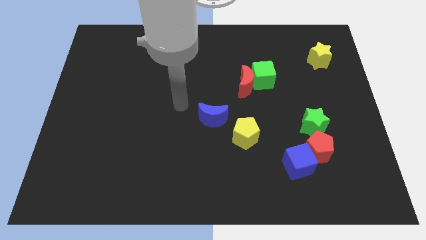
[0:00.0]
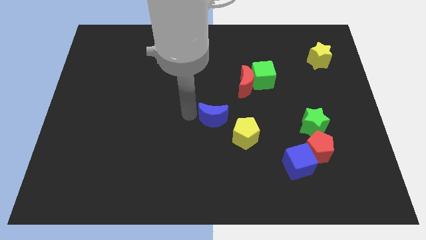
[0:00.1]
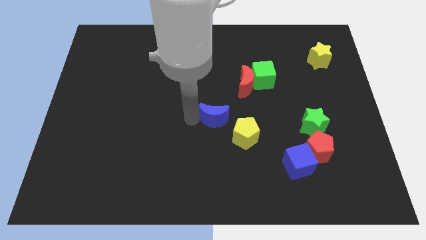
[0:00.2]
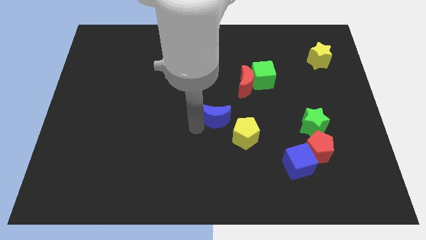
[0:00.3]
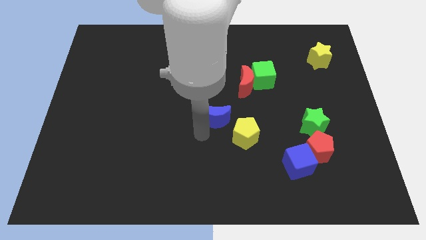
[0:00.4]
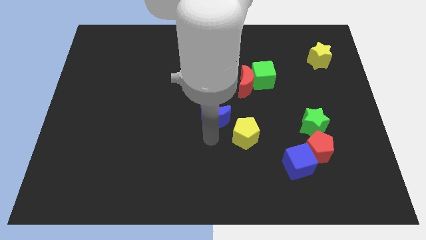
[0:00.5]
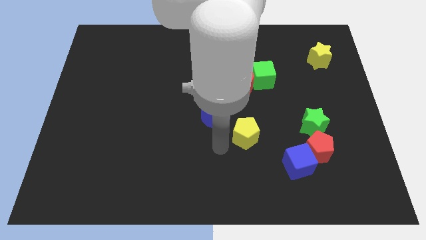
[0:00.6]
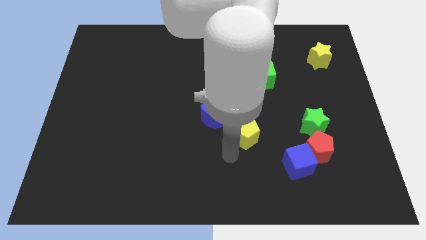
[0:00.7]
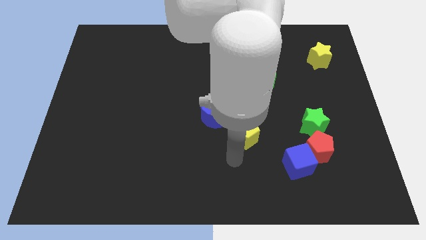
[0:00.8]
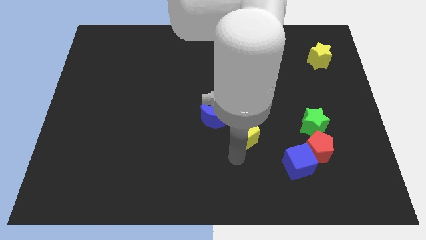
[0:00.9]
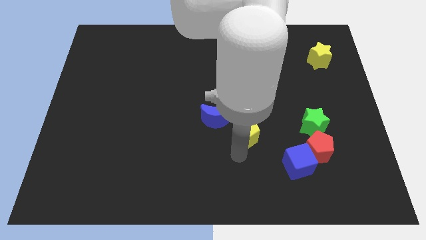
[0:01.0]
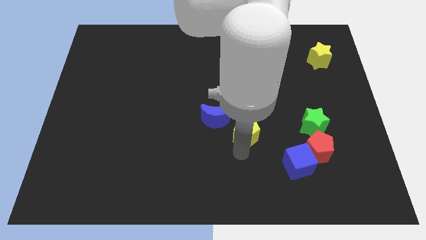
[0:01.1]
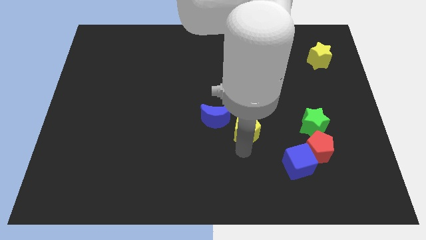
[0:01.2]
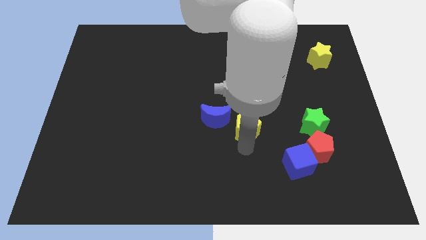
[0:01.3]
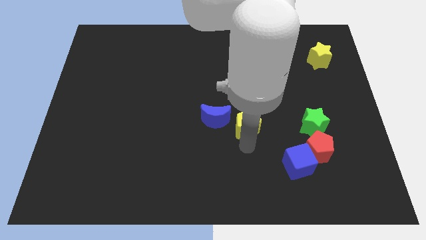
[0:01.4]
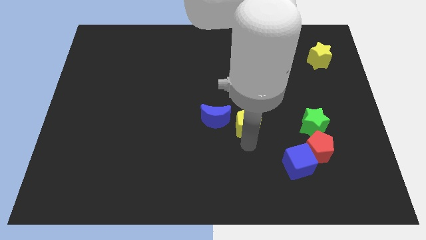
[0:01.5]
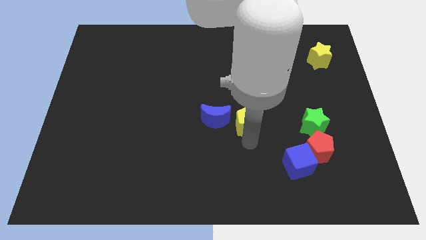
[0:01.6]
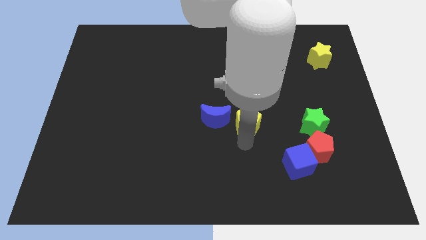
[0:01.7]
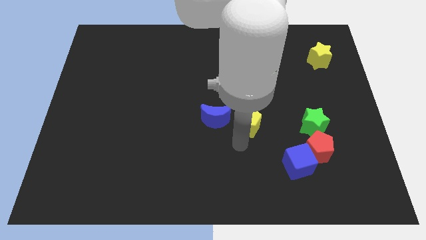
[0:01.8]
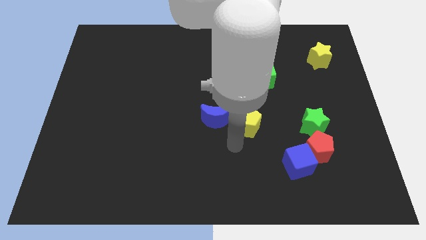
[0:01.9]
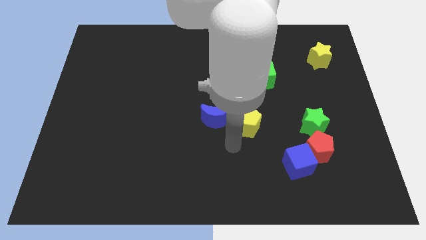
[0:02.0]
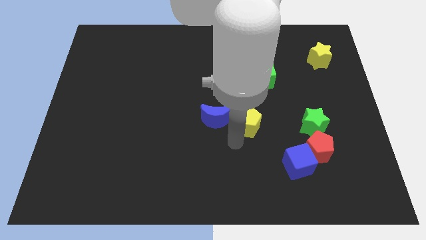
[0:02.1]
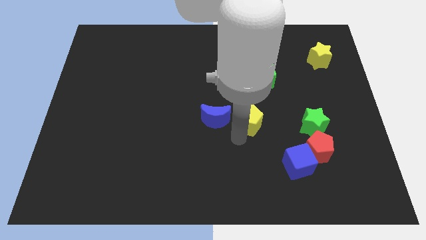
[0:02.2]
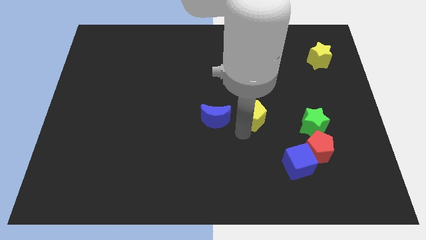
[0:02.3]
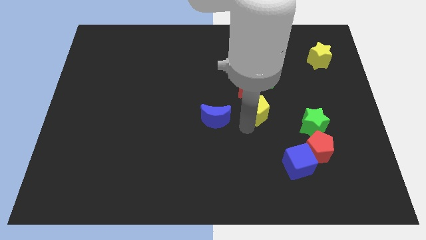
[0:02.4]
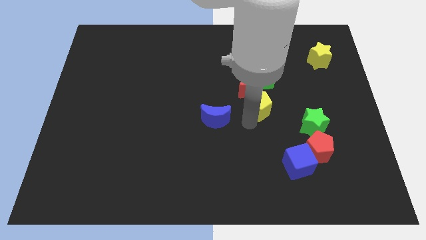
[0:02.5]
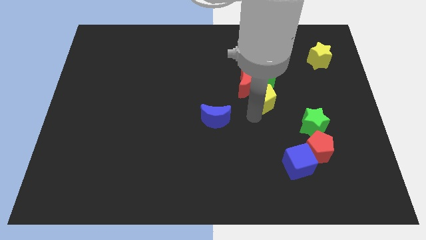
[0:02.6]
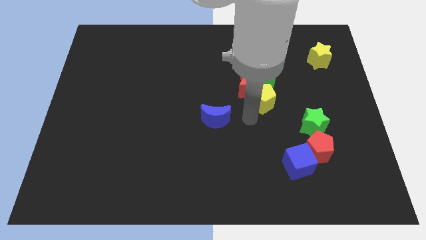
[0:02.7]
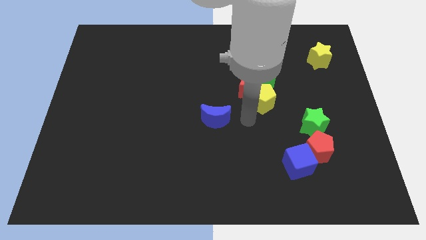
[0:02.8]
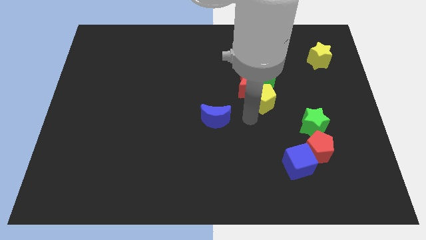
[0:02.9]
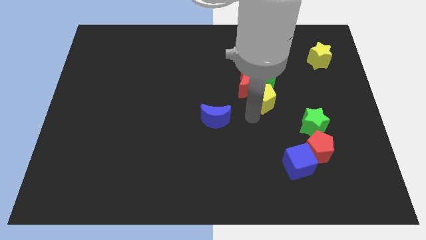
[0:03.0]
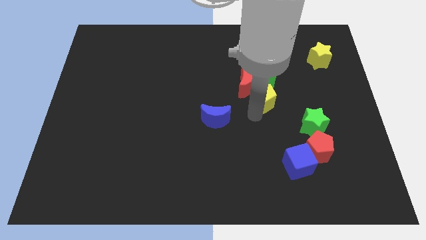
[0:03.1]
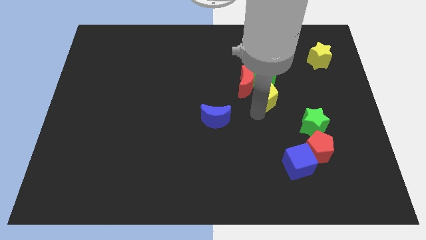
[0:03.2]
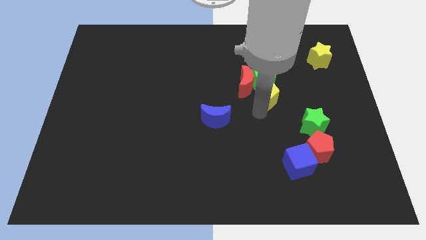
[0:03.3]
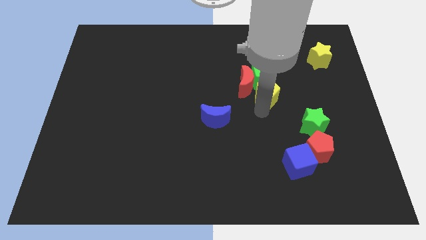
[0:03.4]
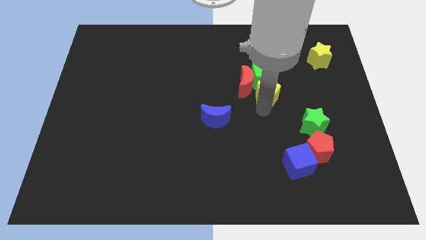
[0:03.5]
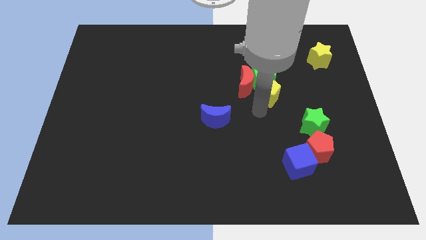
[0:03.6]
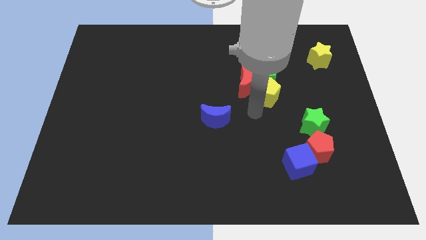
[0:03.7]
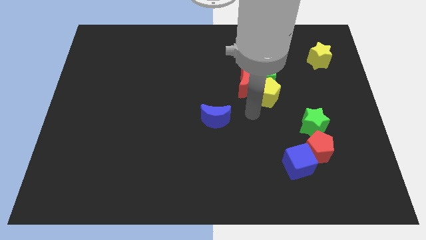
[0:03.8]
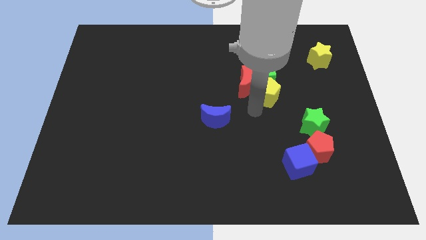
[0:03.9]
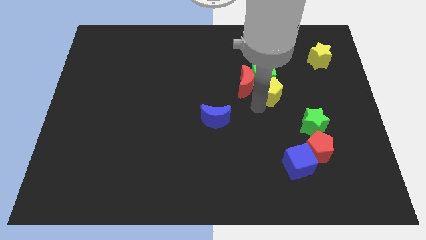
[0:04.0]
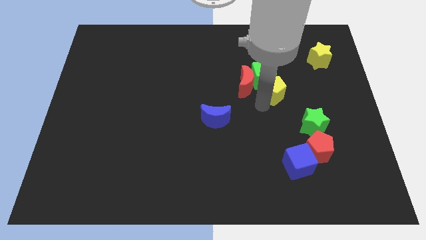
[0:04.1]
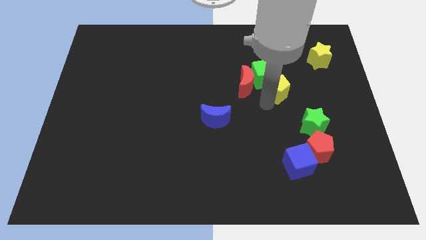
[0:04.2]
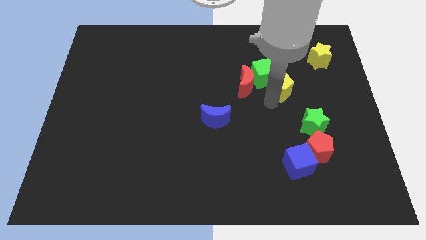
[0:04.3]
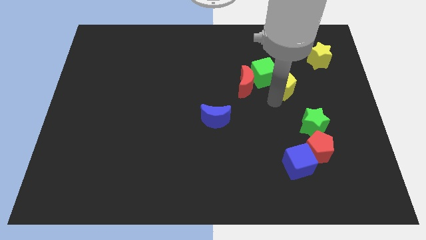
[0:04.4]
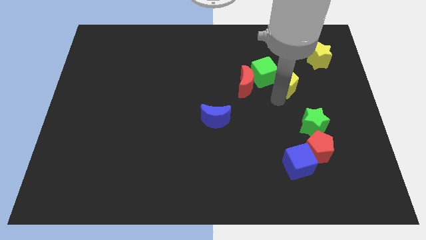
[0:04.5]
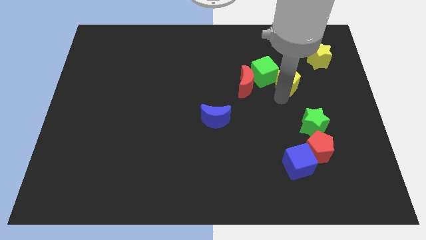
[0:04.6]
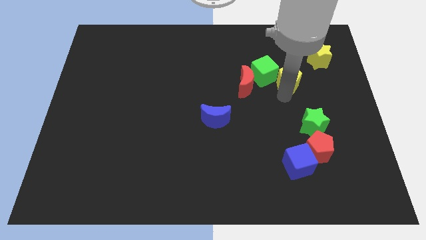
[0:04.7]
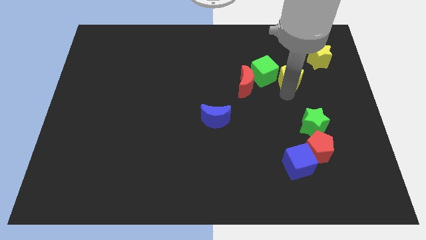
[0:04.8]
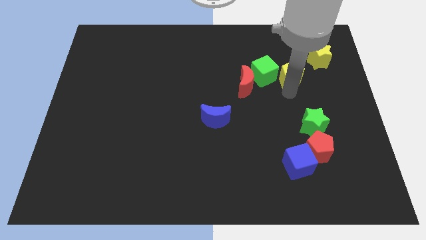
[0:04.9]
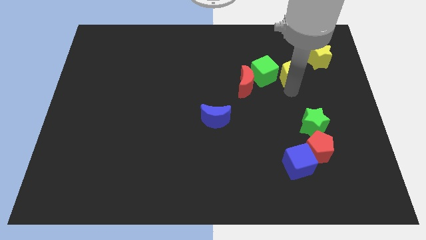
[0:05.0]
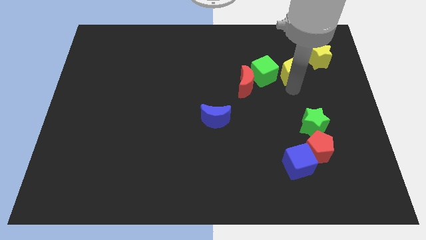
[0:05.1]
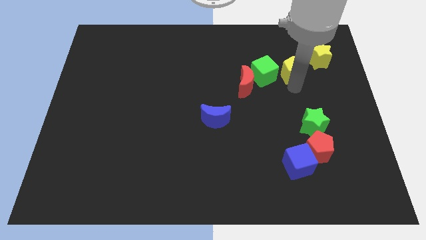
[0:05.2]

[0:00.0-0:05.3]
push the yellow pentagon to the top right of the green cube

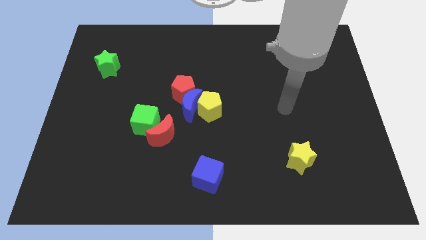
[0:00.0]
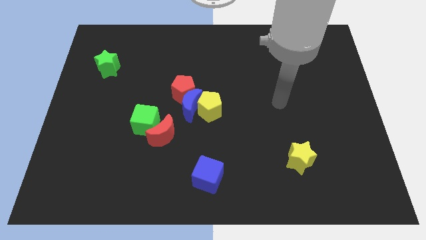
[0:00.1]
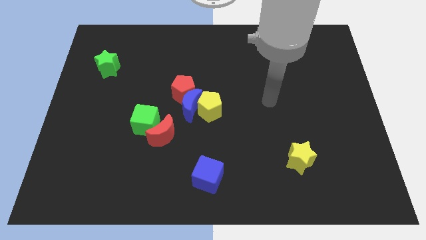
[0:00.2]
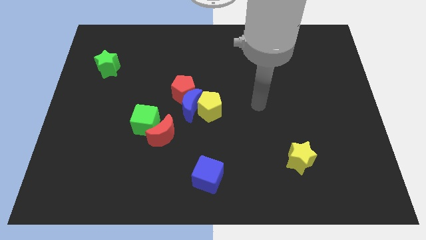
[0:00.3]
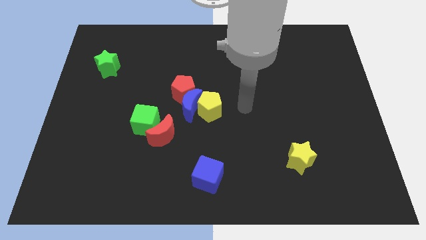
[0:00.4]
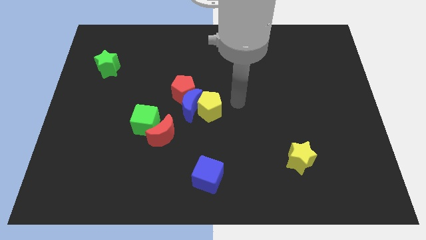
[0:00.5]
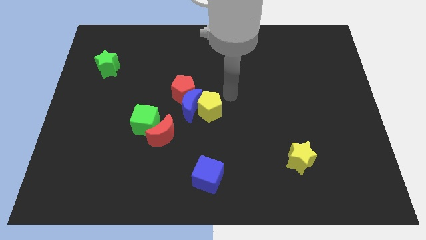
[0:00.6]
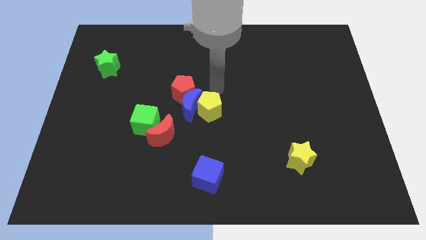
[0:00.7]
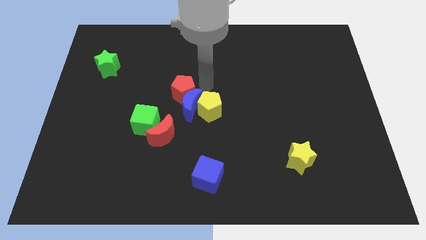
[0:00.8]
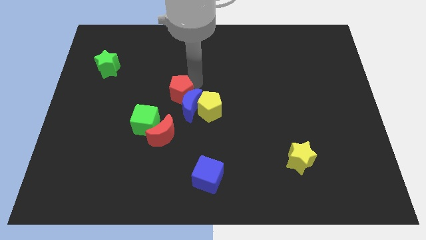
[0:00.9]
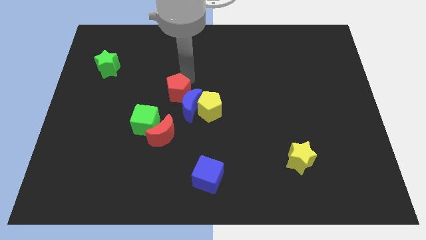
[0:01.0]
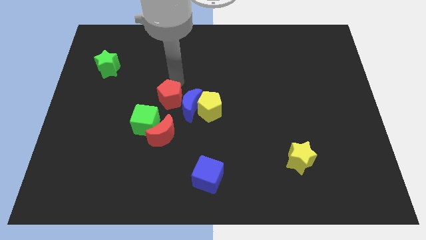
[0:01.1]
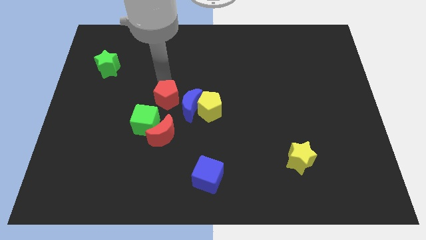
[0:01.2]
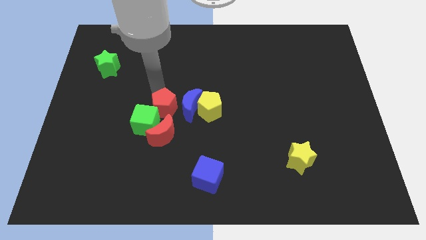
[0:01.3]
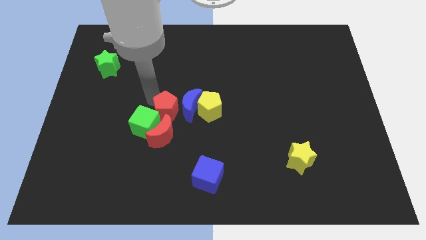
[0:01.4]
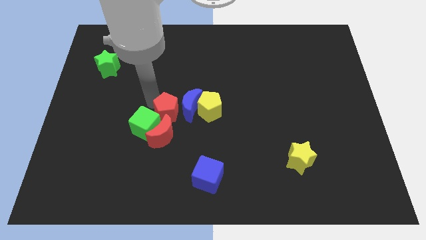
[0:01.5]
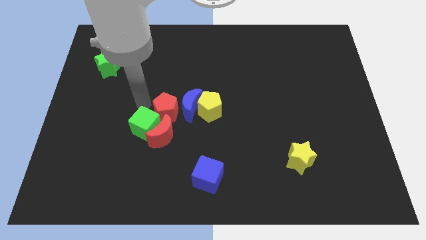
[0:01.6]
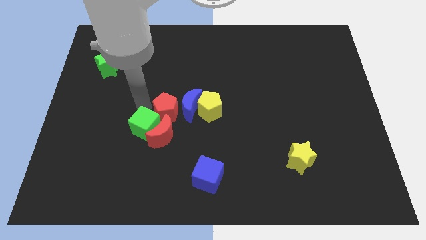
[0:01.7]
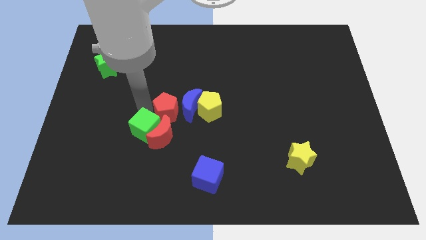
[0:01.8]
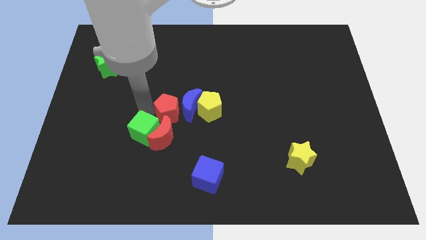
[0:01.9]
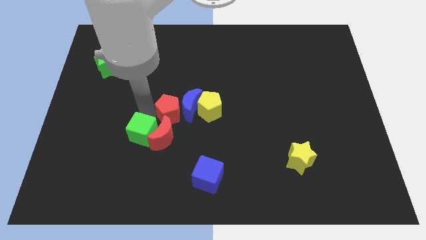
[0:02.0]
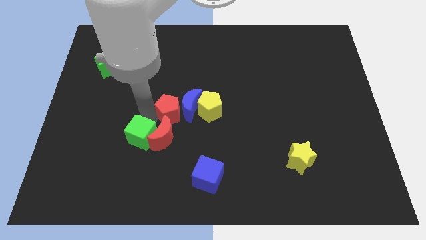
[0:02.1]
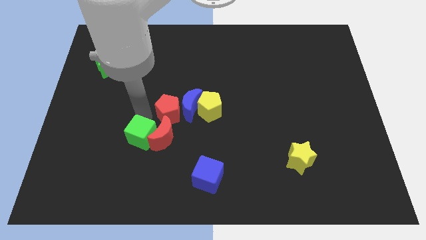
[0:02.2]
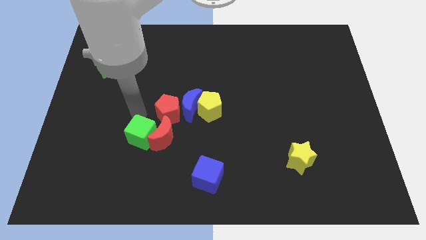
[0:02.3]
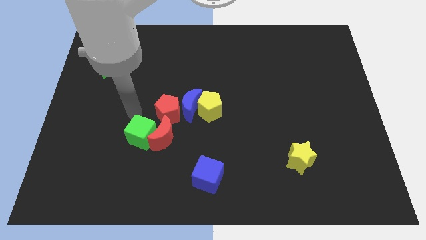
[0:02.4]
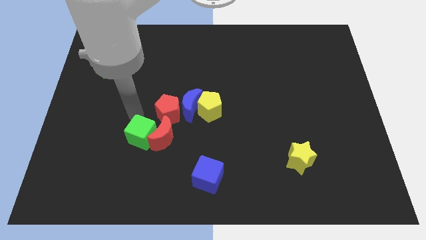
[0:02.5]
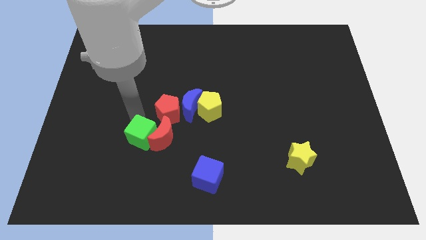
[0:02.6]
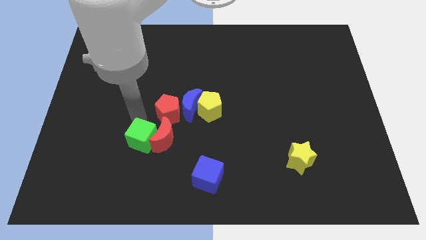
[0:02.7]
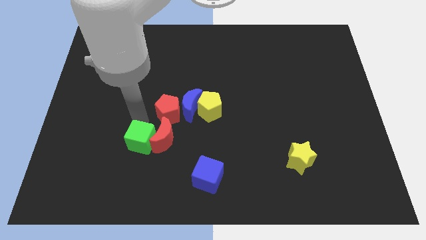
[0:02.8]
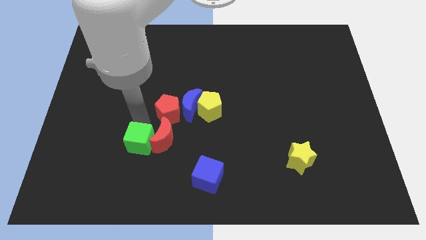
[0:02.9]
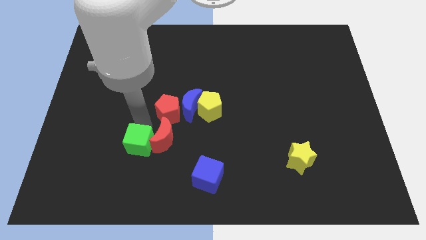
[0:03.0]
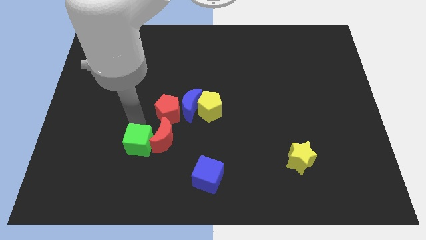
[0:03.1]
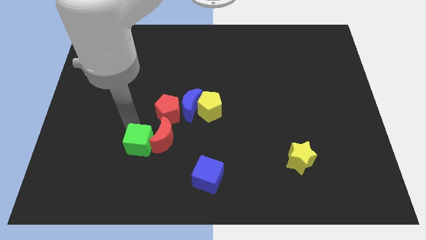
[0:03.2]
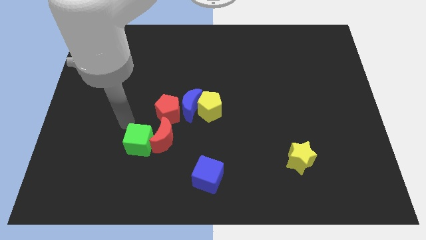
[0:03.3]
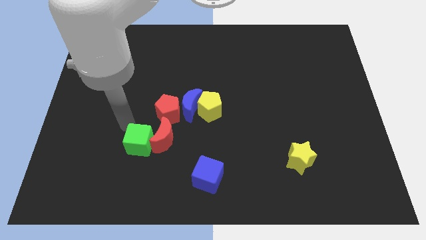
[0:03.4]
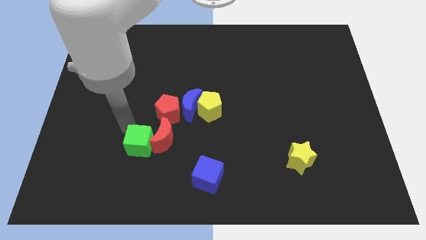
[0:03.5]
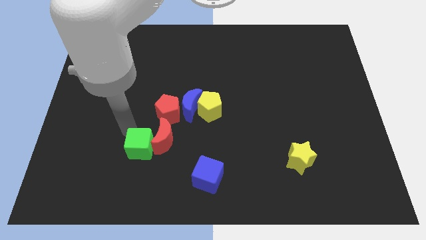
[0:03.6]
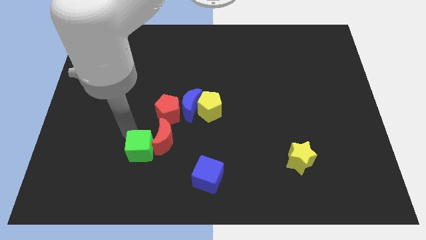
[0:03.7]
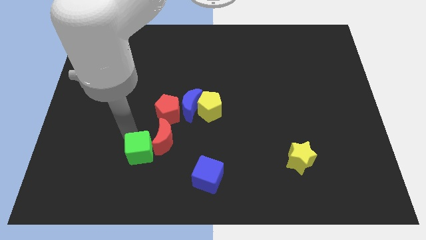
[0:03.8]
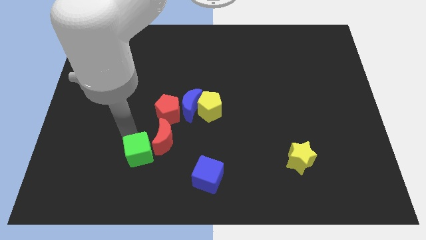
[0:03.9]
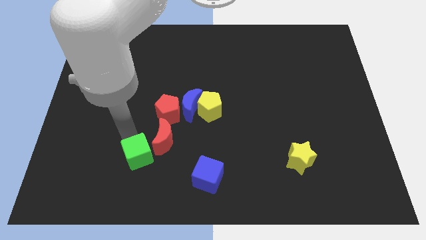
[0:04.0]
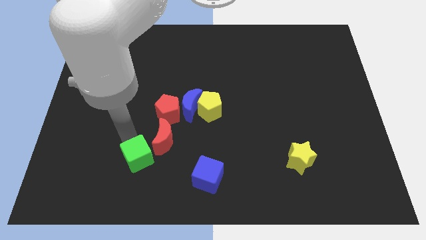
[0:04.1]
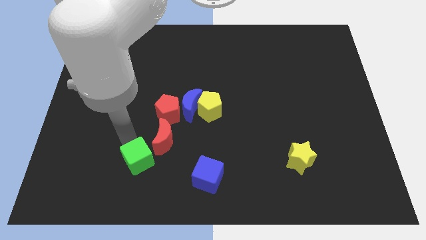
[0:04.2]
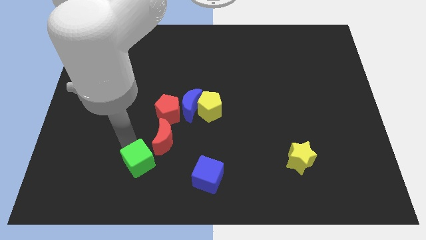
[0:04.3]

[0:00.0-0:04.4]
push the green cube to the bottom side of the red moon
